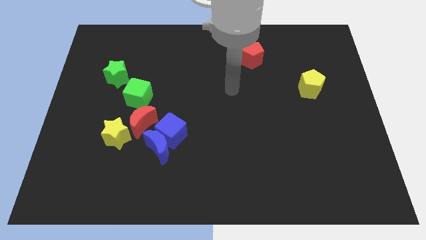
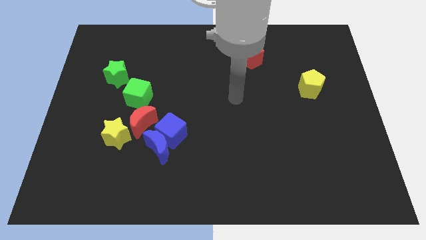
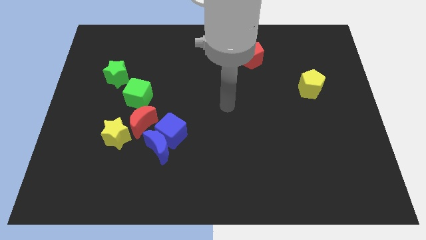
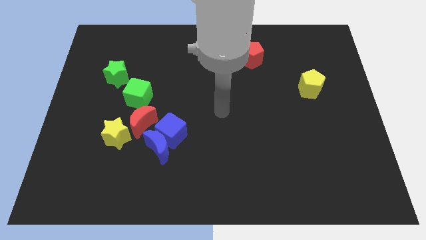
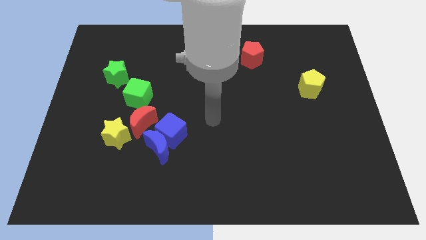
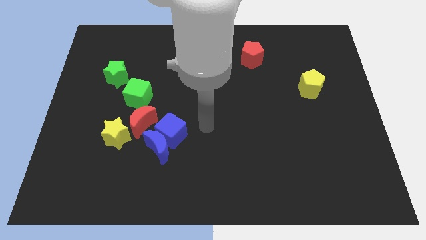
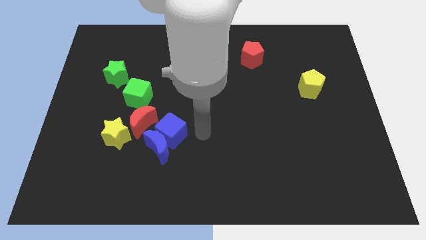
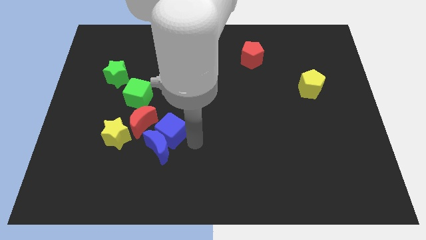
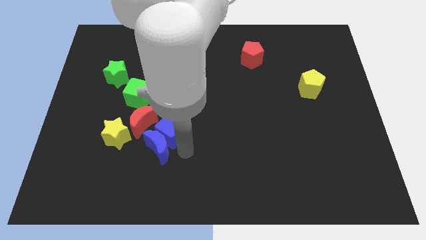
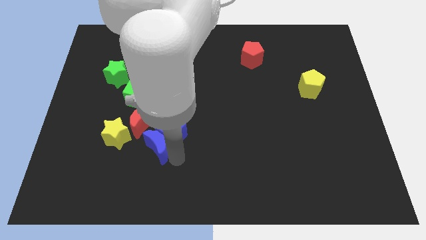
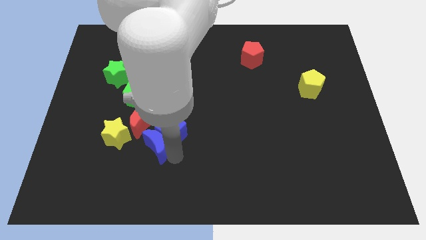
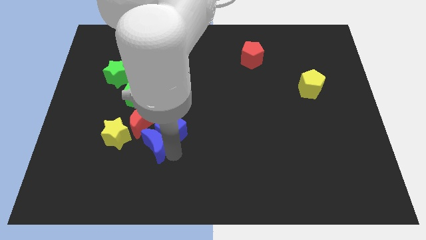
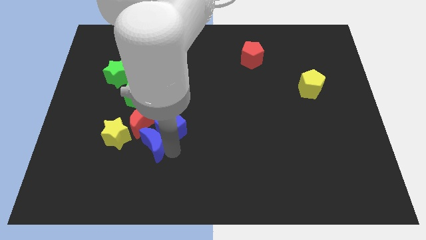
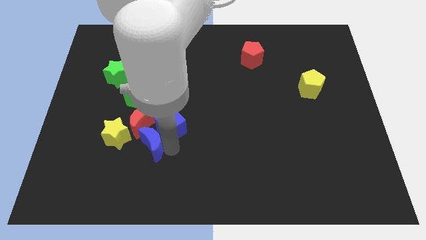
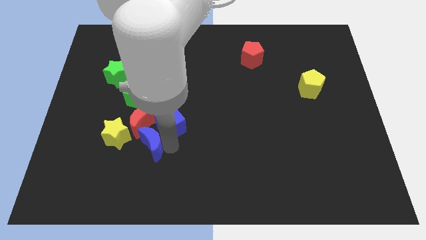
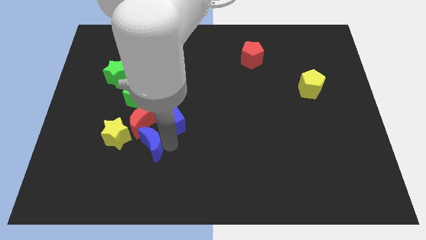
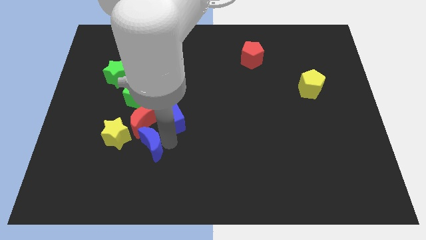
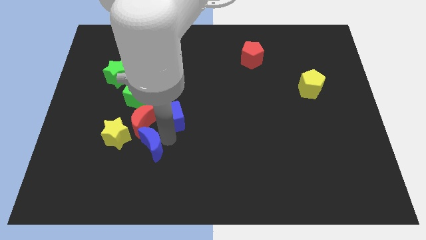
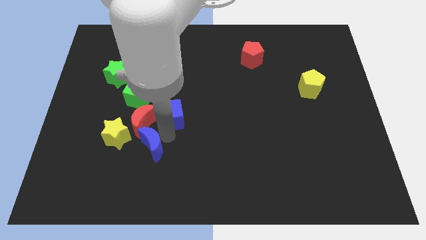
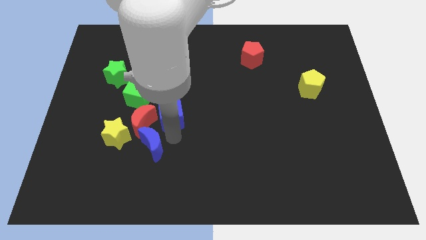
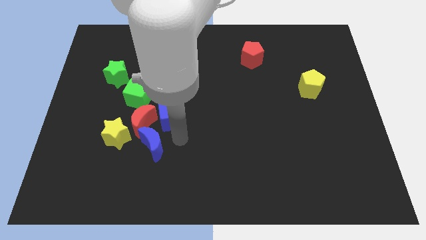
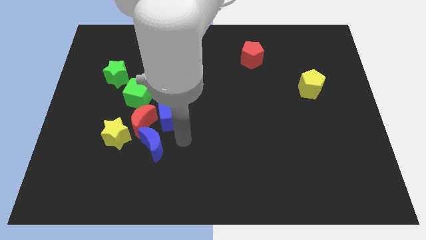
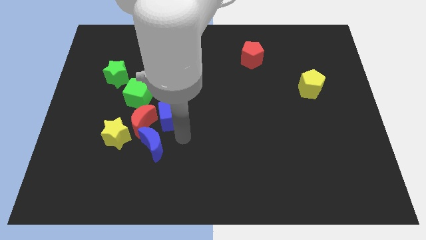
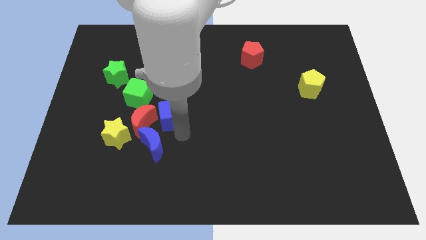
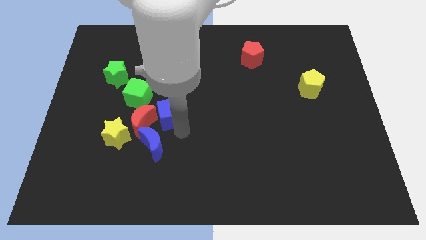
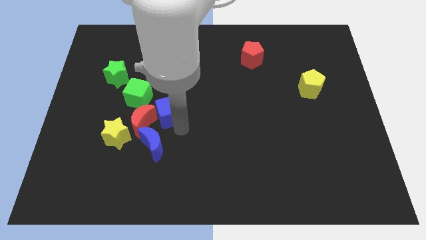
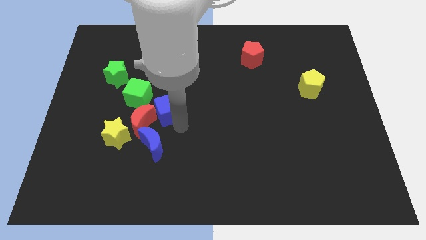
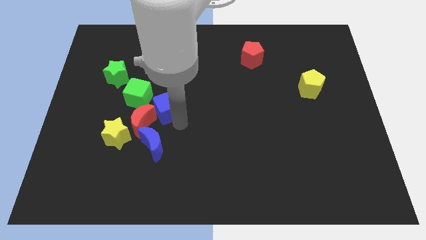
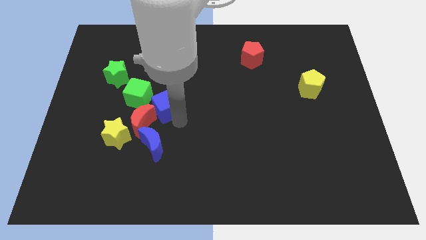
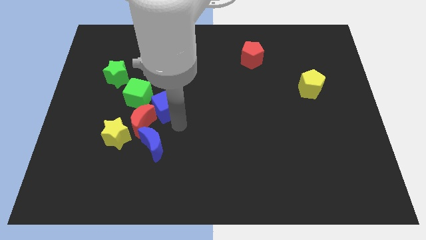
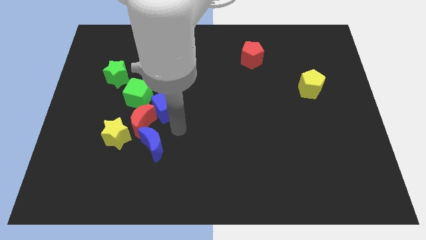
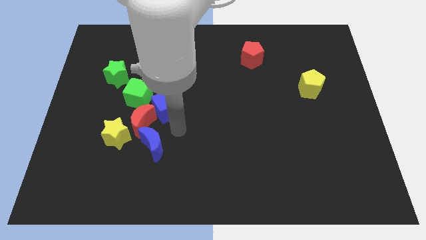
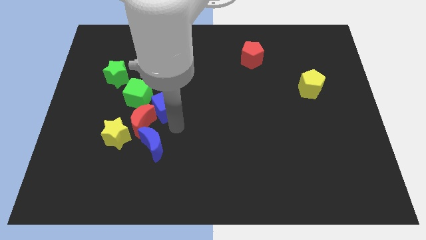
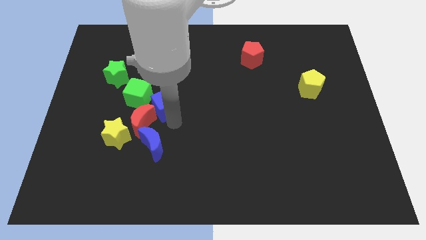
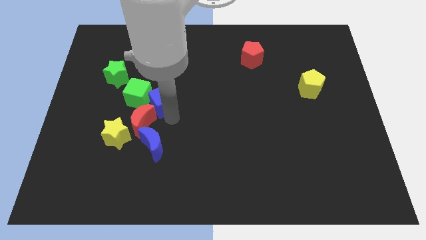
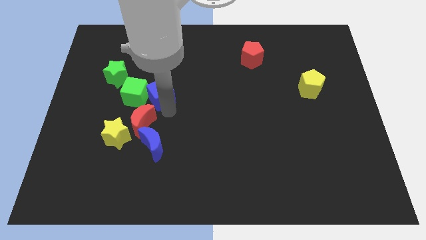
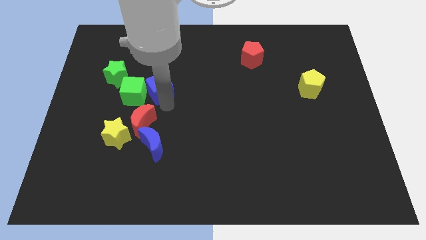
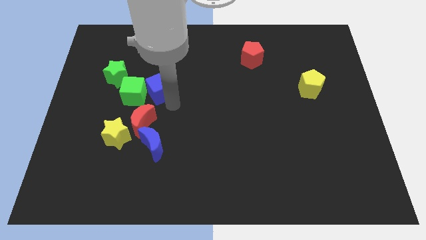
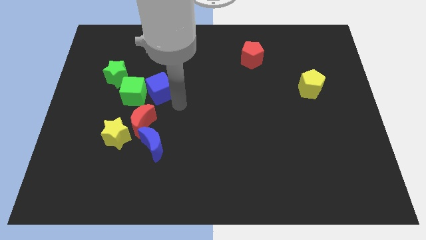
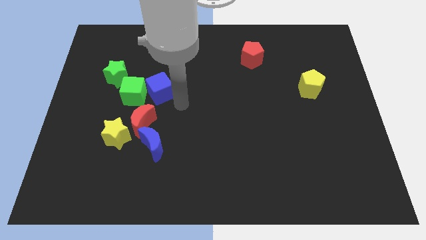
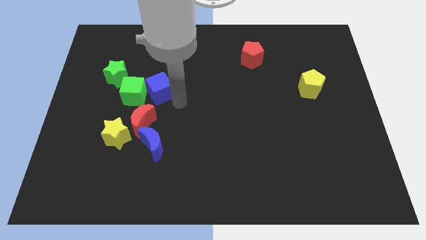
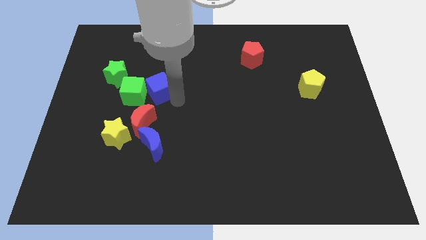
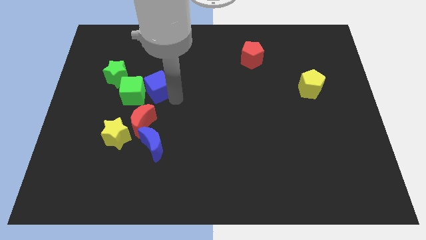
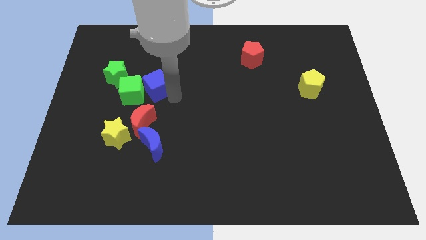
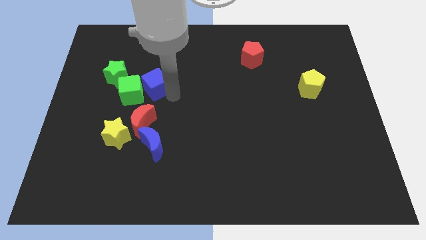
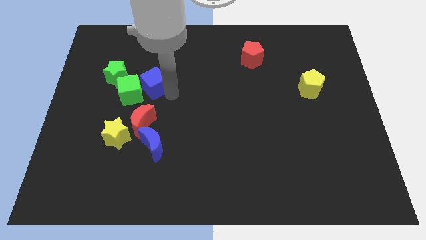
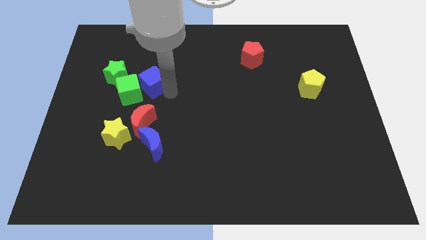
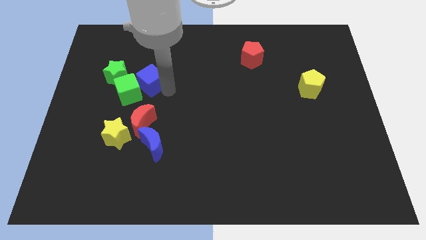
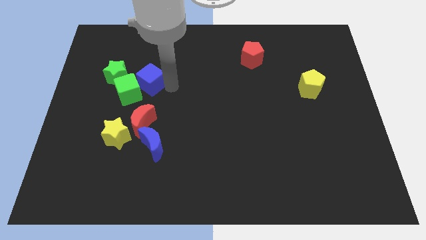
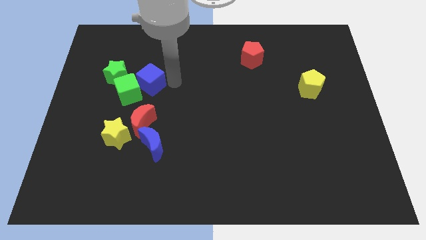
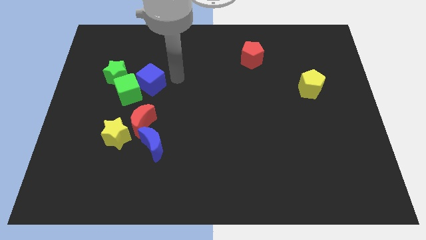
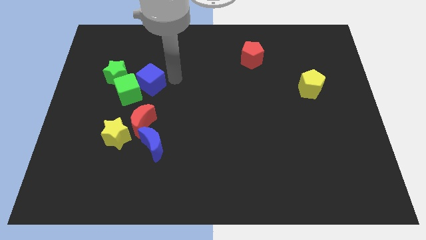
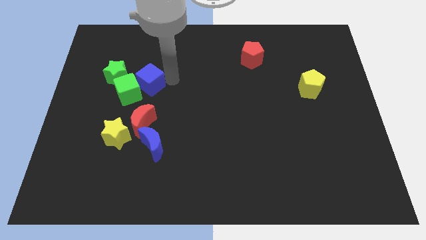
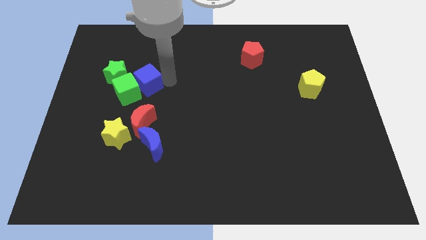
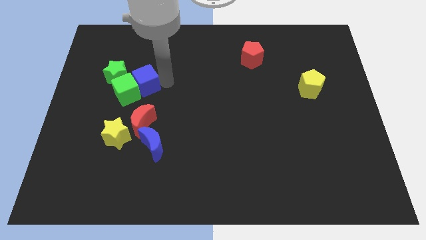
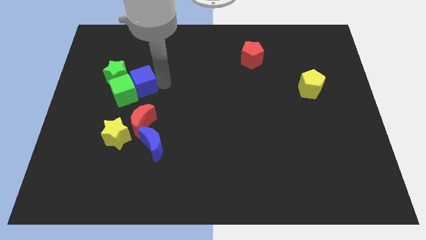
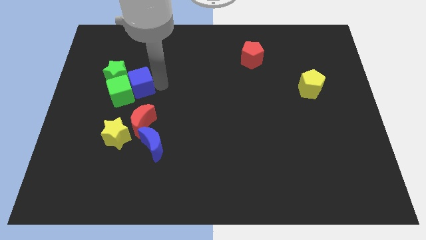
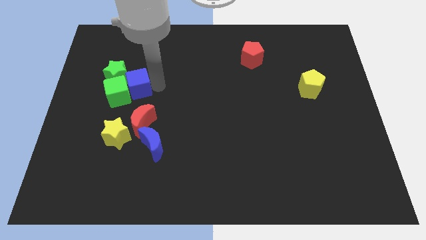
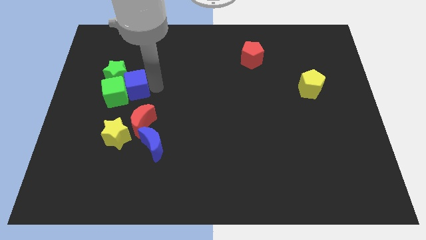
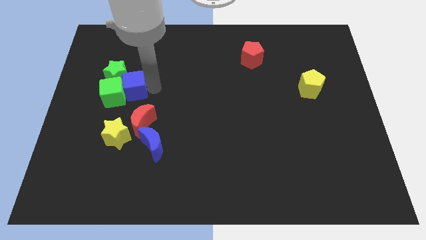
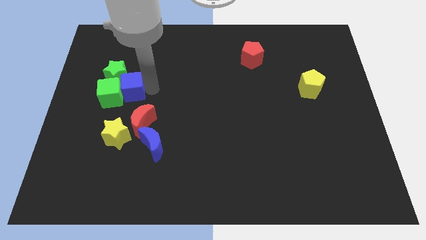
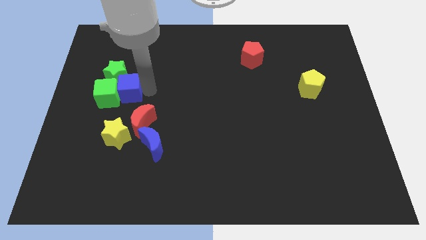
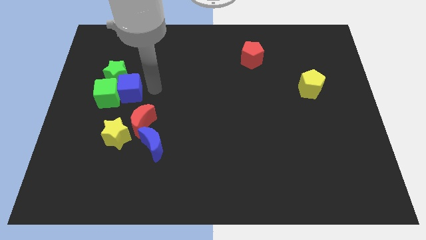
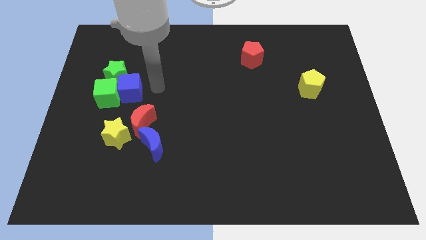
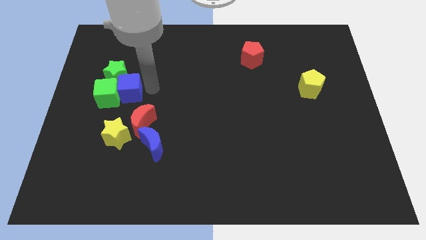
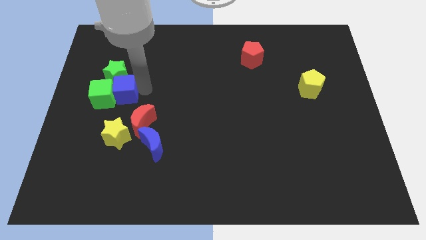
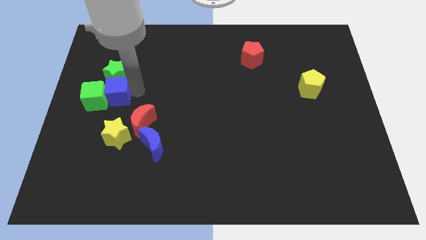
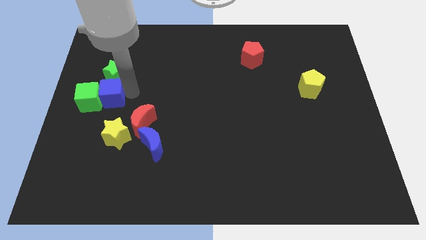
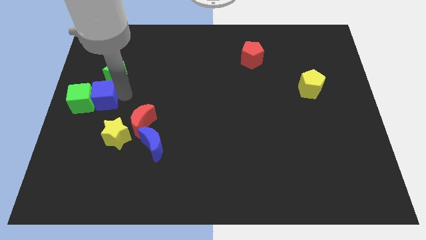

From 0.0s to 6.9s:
push the blue cube to the left side of the board
